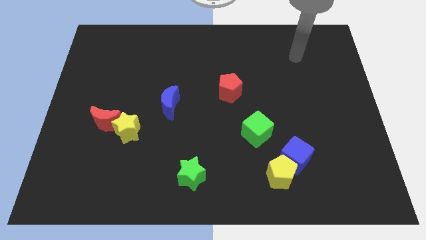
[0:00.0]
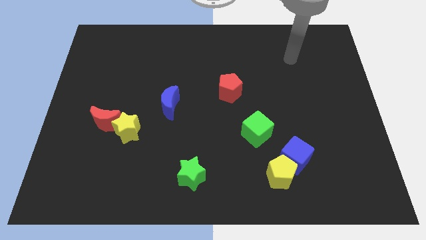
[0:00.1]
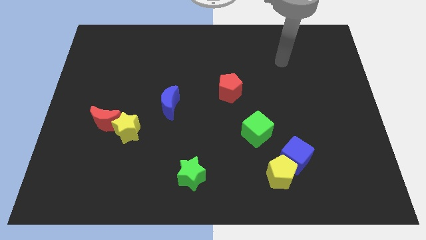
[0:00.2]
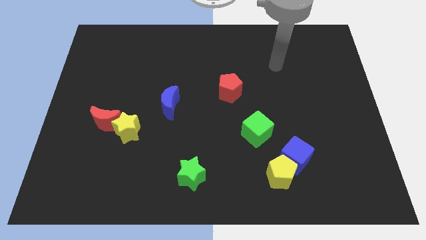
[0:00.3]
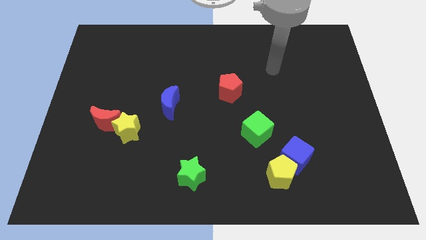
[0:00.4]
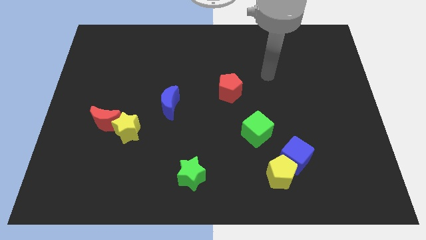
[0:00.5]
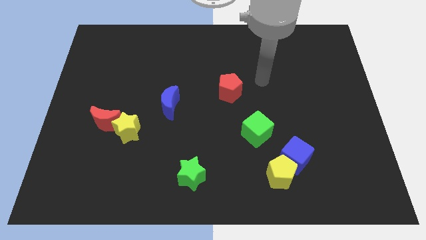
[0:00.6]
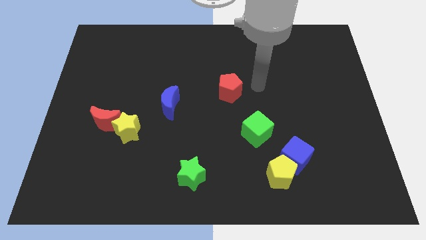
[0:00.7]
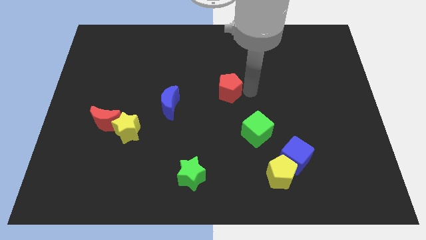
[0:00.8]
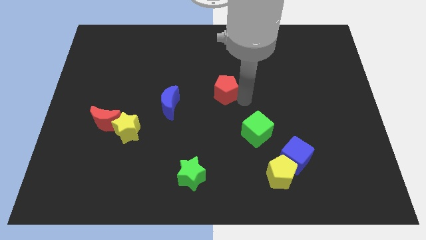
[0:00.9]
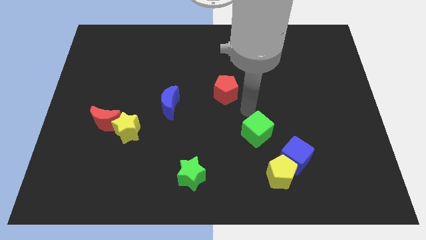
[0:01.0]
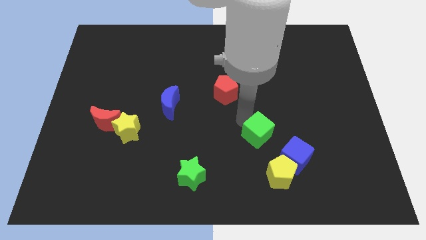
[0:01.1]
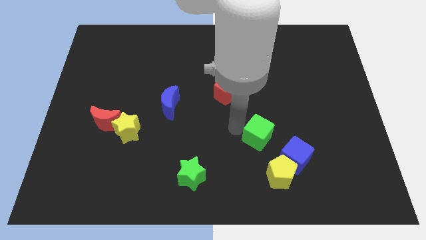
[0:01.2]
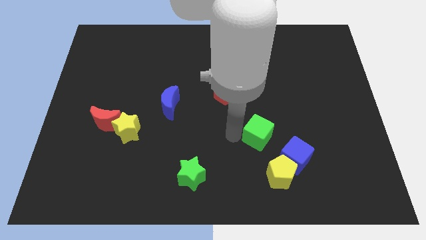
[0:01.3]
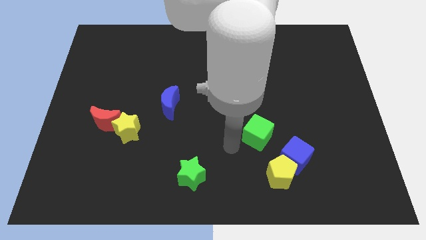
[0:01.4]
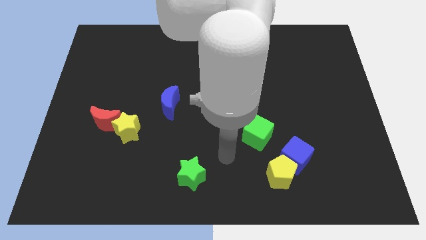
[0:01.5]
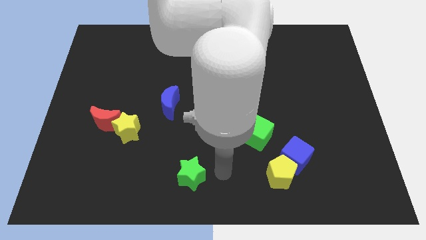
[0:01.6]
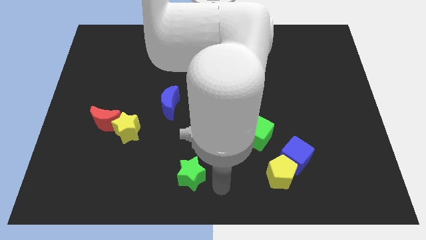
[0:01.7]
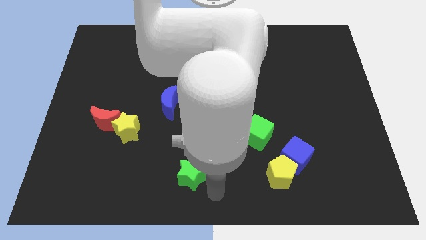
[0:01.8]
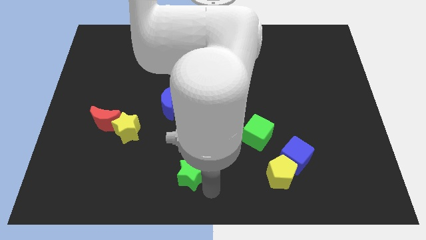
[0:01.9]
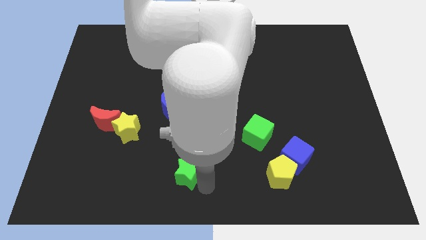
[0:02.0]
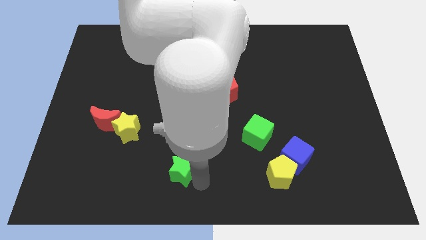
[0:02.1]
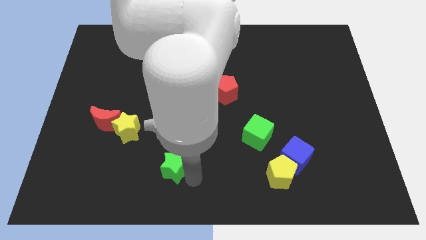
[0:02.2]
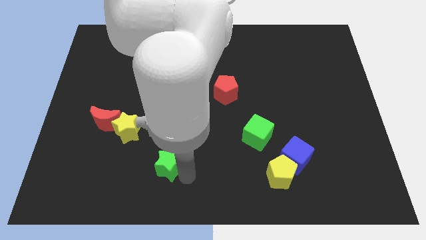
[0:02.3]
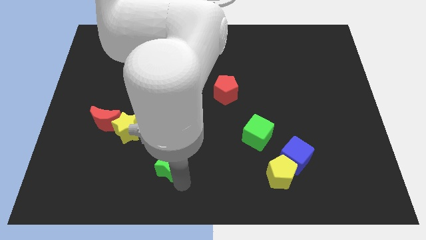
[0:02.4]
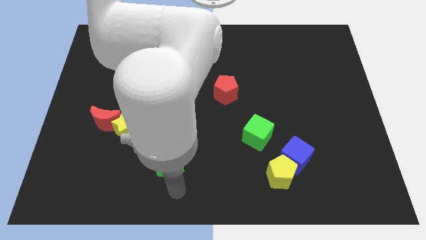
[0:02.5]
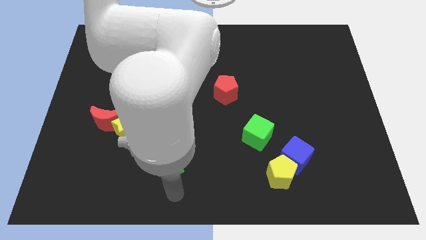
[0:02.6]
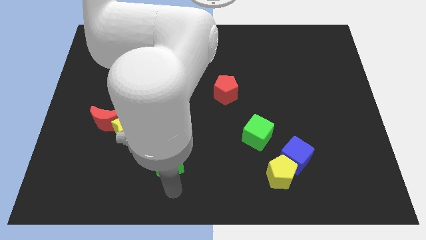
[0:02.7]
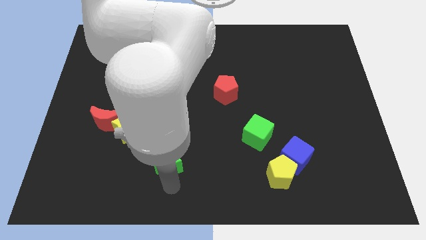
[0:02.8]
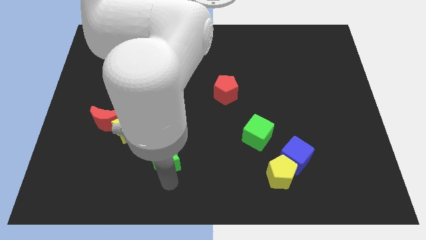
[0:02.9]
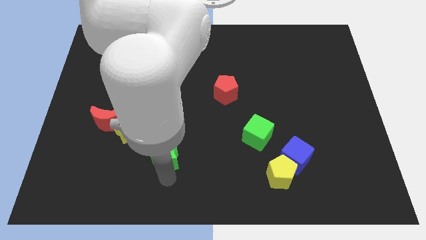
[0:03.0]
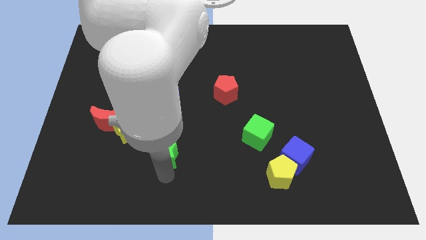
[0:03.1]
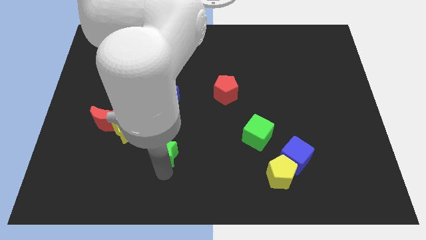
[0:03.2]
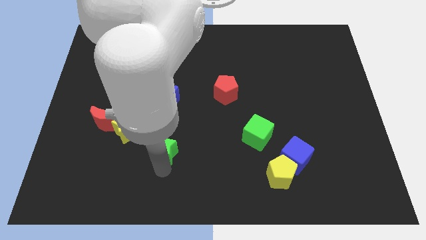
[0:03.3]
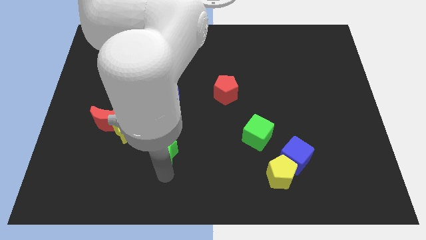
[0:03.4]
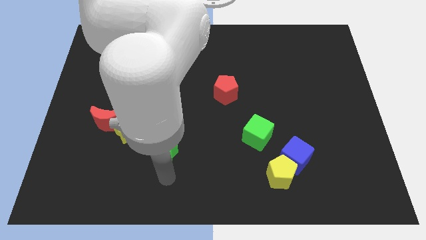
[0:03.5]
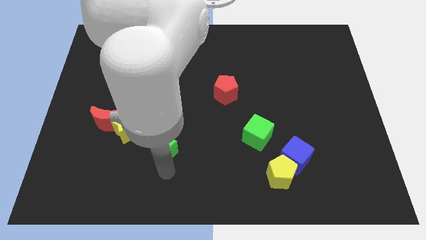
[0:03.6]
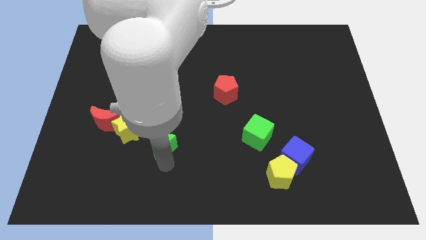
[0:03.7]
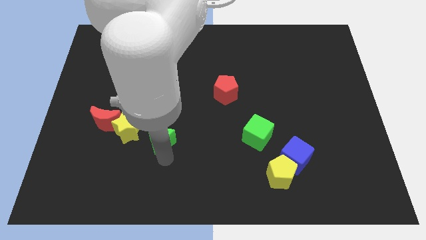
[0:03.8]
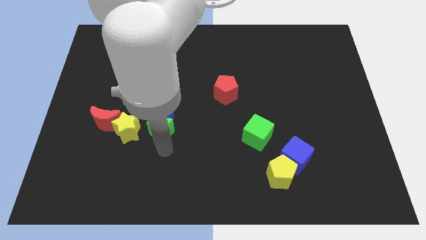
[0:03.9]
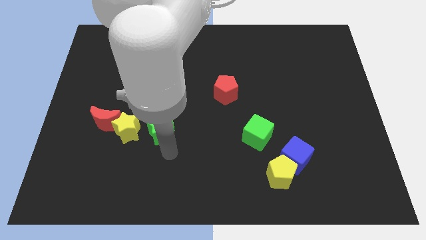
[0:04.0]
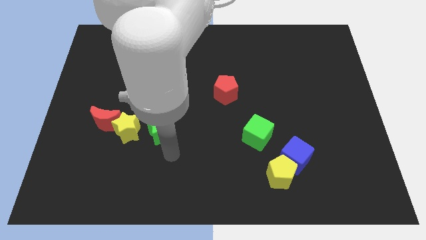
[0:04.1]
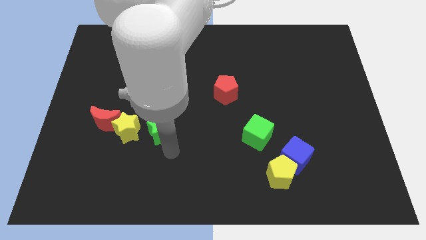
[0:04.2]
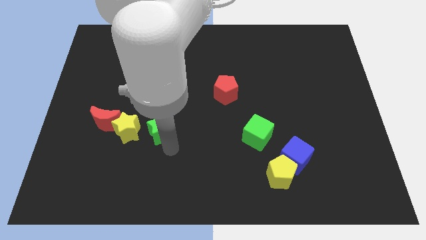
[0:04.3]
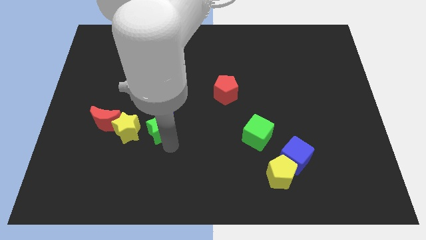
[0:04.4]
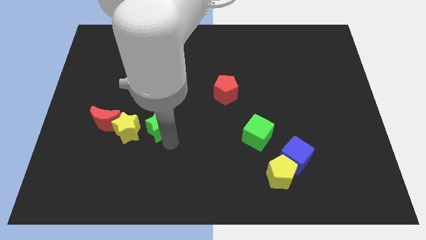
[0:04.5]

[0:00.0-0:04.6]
put the green star diagonally up and to the right of the yellow star

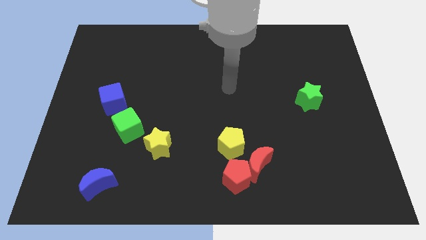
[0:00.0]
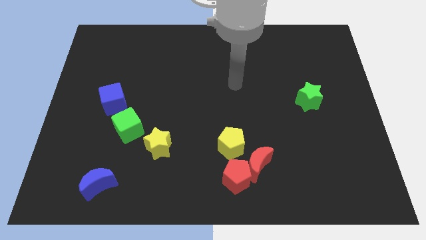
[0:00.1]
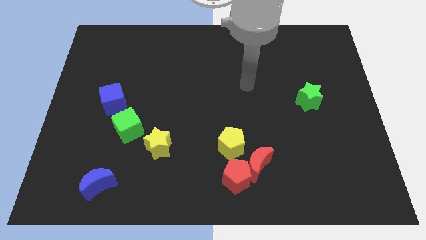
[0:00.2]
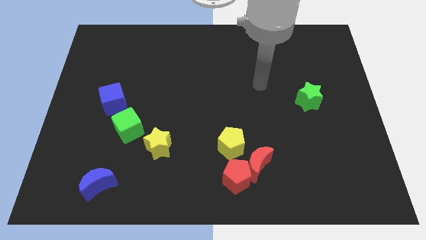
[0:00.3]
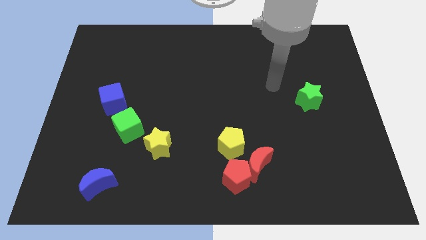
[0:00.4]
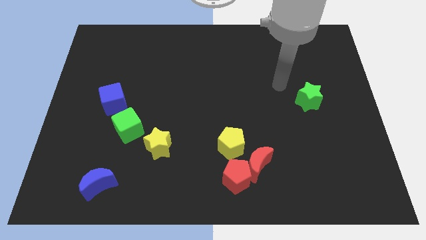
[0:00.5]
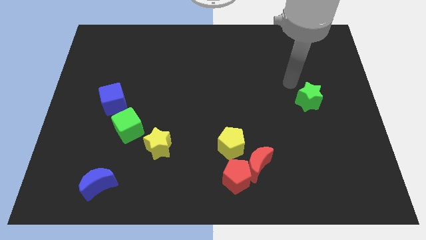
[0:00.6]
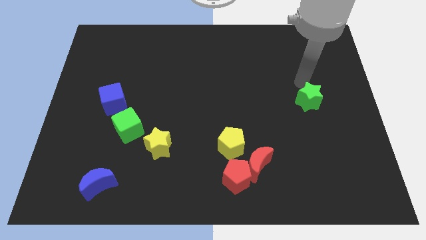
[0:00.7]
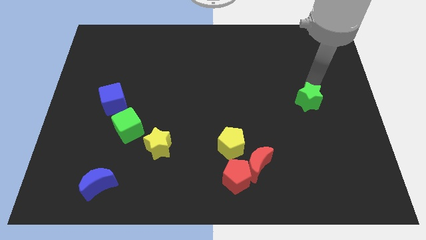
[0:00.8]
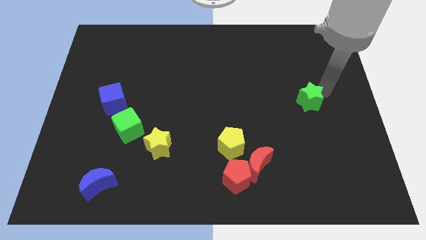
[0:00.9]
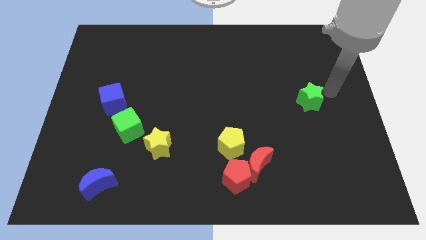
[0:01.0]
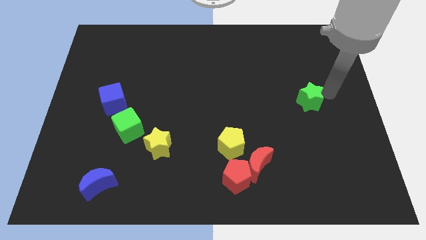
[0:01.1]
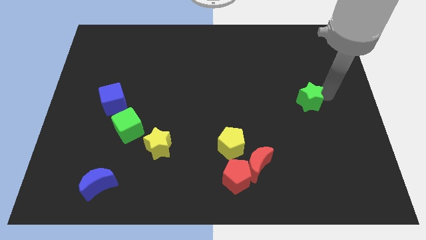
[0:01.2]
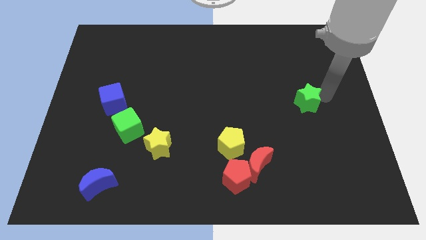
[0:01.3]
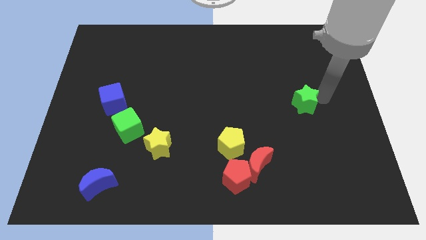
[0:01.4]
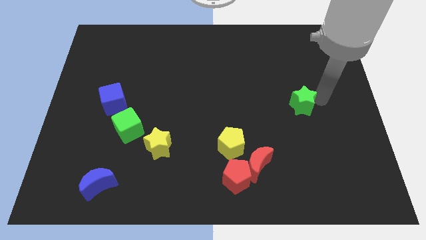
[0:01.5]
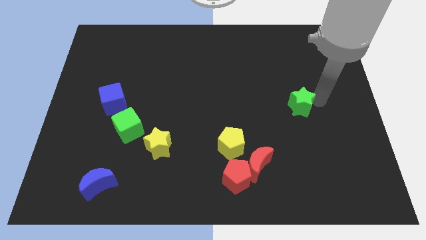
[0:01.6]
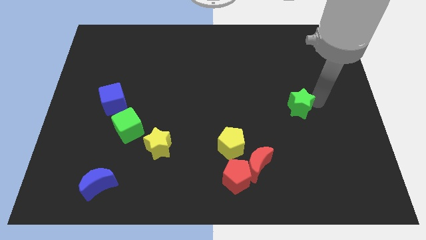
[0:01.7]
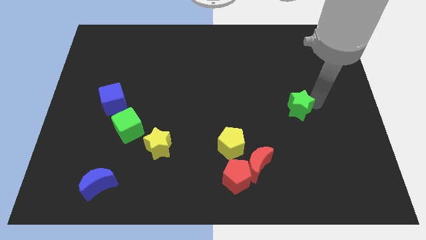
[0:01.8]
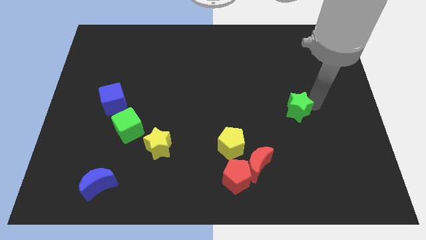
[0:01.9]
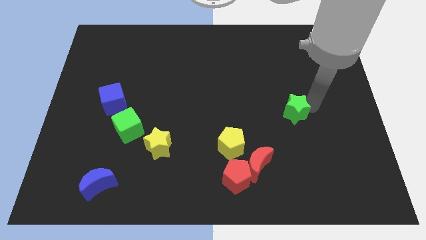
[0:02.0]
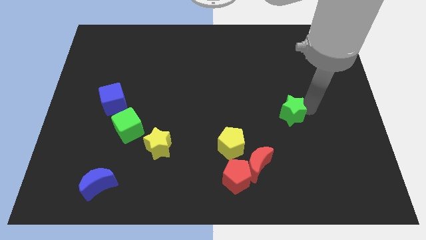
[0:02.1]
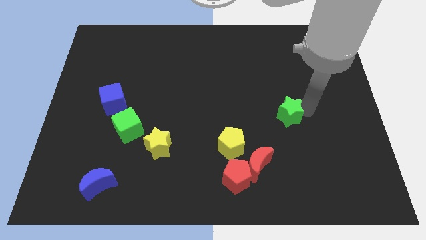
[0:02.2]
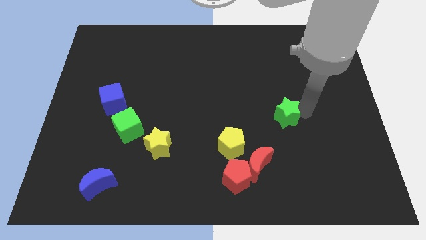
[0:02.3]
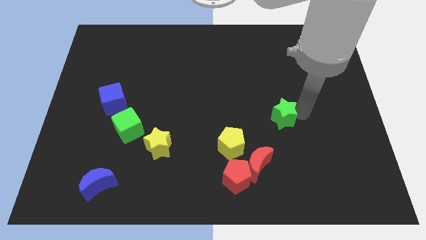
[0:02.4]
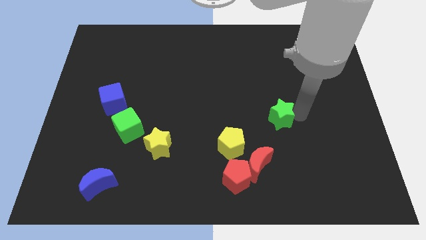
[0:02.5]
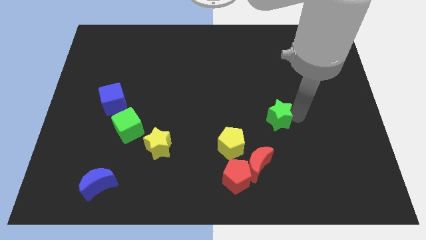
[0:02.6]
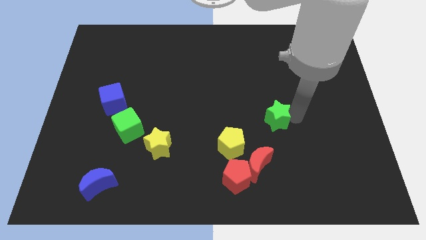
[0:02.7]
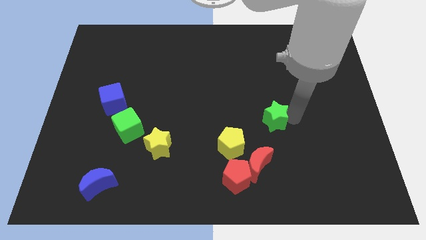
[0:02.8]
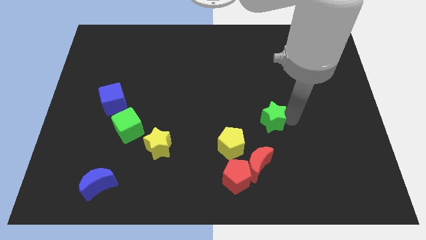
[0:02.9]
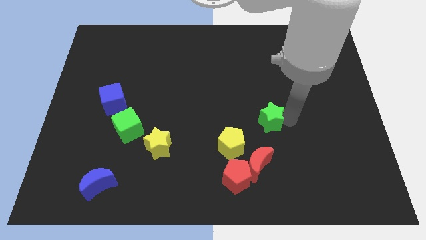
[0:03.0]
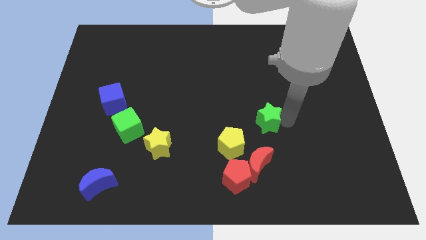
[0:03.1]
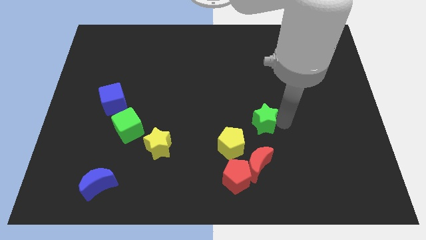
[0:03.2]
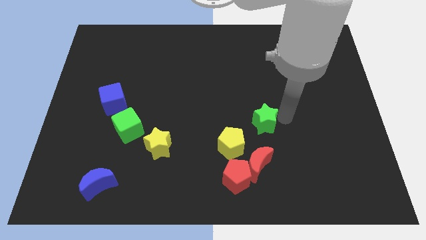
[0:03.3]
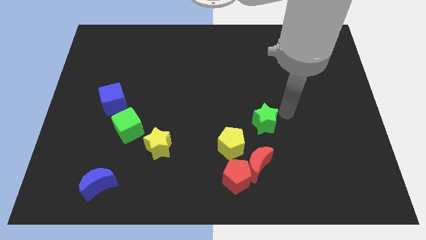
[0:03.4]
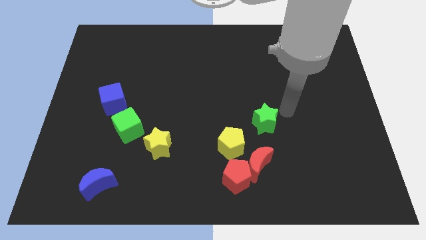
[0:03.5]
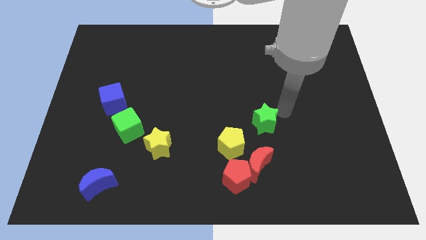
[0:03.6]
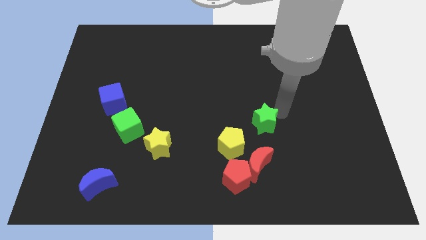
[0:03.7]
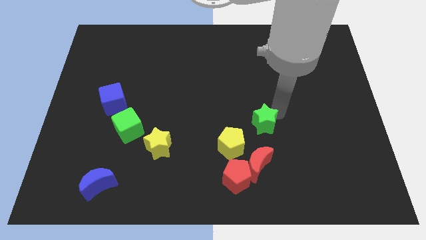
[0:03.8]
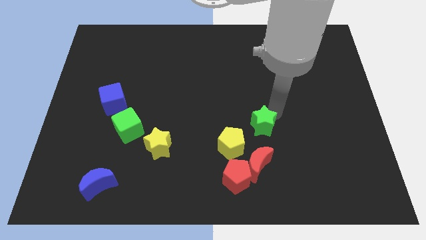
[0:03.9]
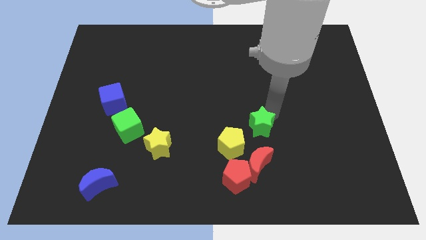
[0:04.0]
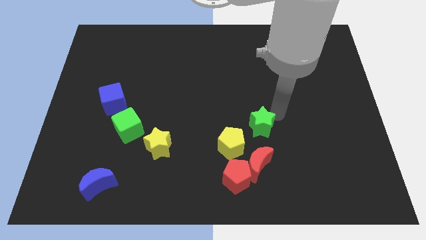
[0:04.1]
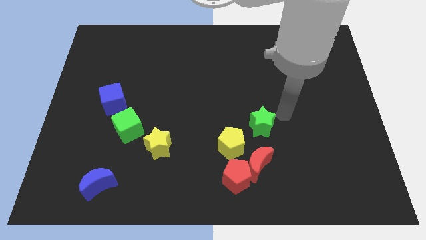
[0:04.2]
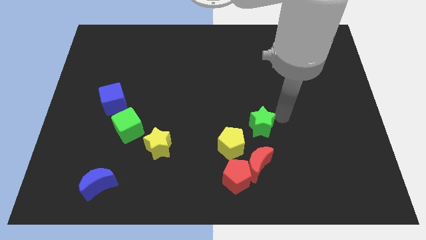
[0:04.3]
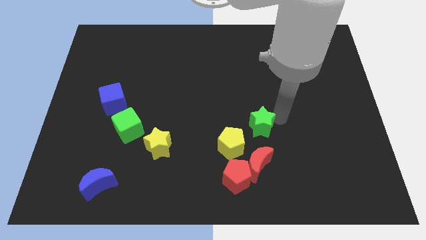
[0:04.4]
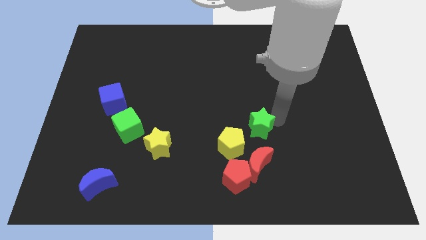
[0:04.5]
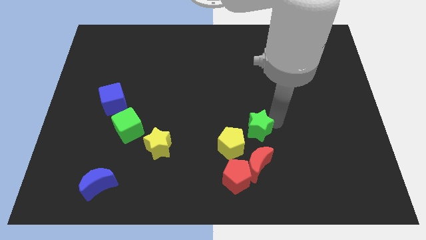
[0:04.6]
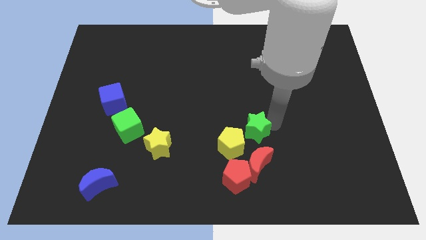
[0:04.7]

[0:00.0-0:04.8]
push the green star to the top side of the red pentagon
